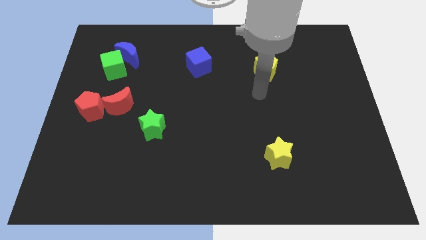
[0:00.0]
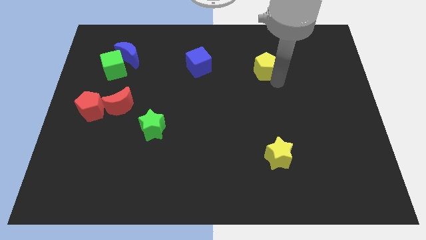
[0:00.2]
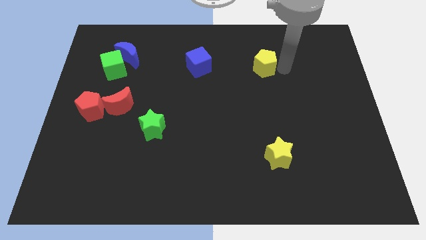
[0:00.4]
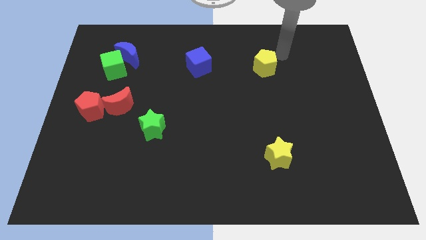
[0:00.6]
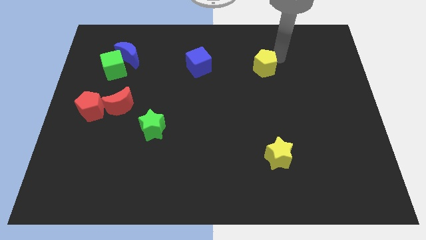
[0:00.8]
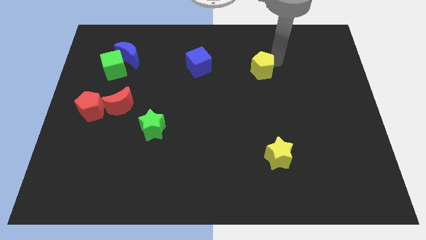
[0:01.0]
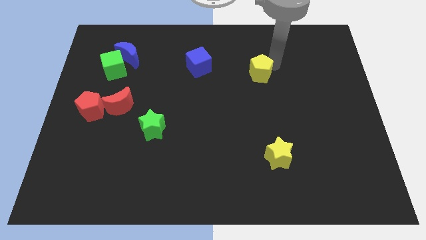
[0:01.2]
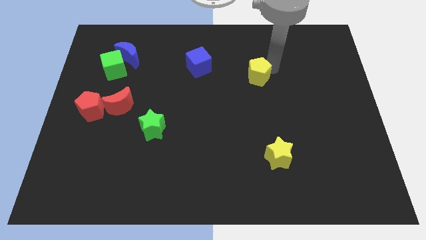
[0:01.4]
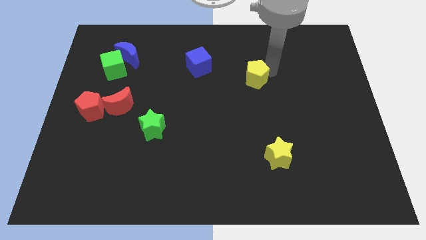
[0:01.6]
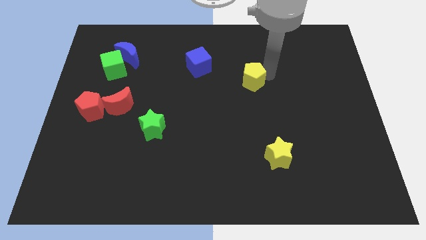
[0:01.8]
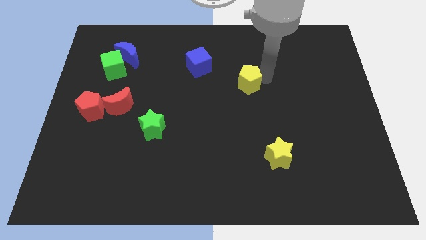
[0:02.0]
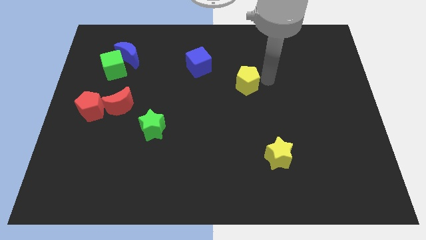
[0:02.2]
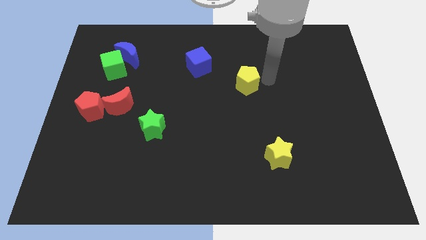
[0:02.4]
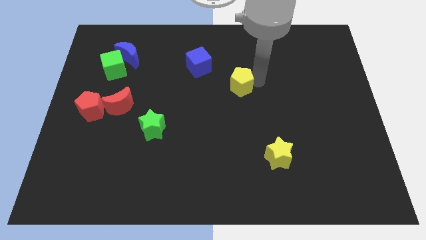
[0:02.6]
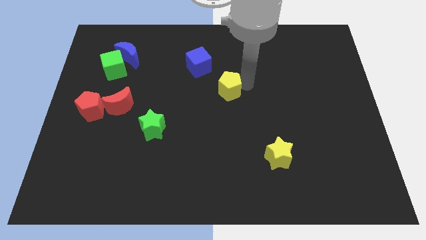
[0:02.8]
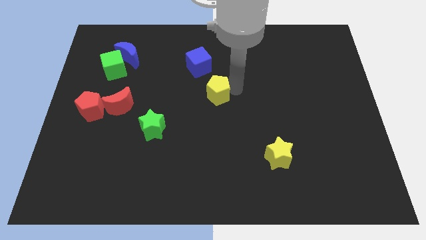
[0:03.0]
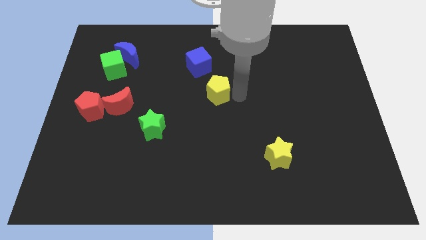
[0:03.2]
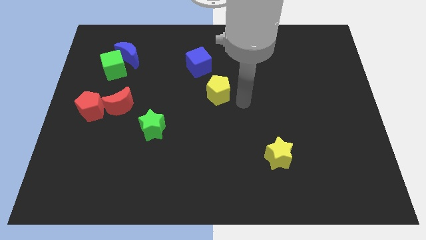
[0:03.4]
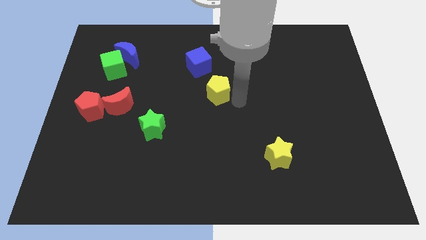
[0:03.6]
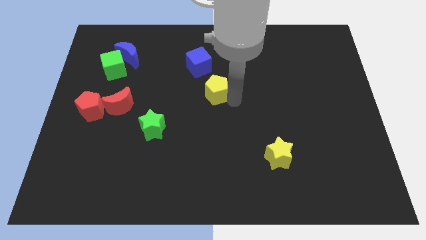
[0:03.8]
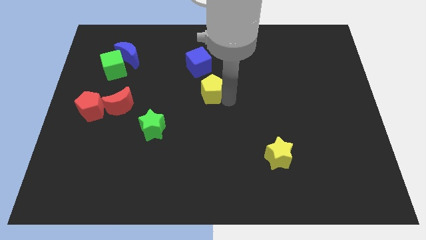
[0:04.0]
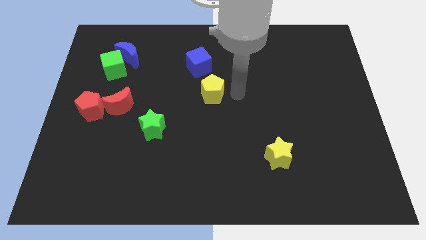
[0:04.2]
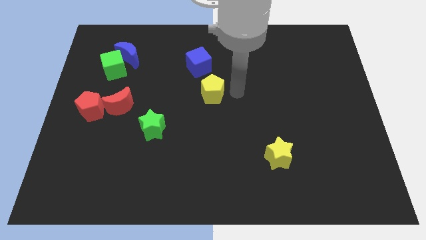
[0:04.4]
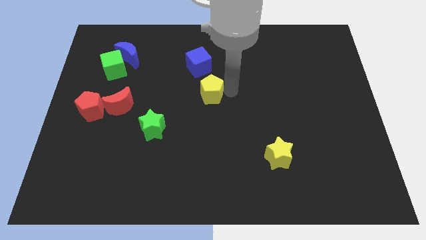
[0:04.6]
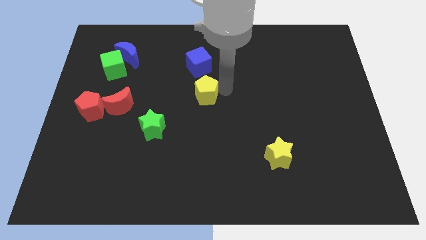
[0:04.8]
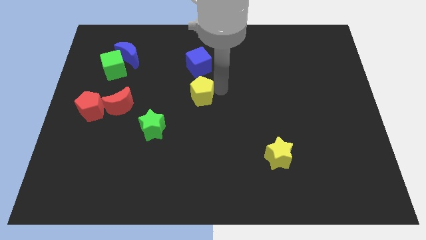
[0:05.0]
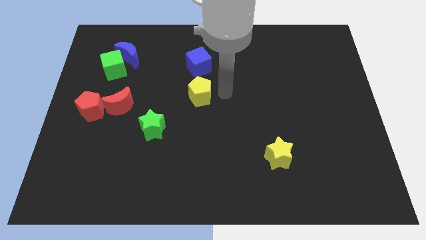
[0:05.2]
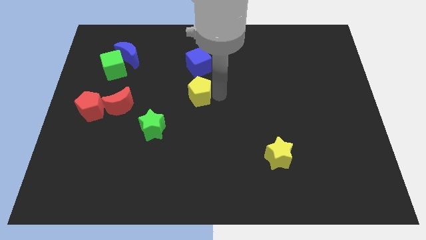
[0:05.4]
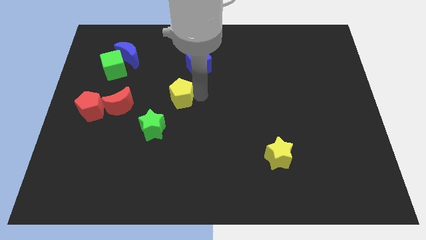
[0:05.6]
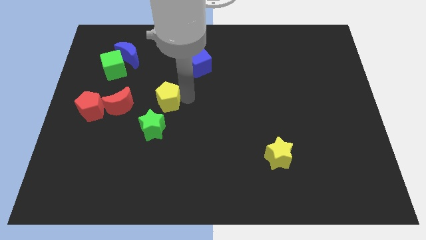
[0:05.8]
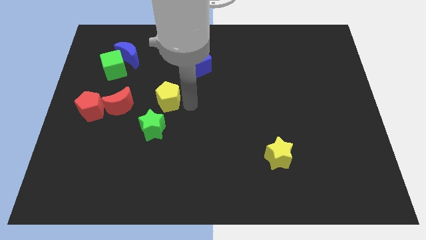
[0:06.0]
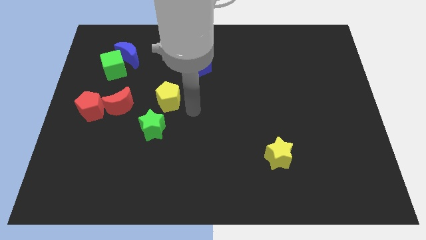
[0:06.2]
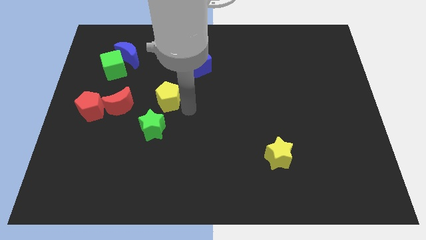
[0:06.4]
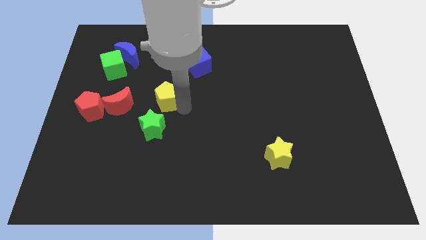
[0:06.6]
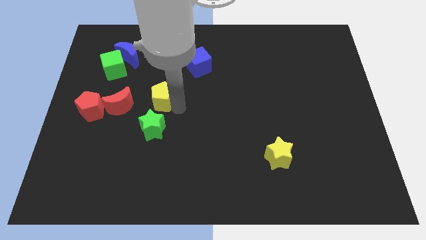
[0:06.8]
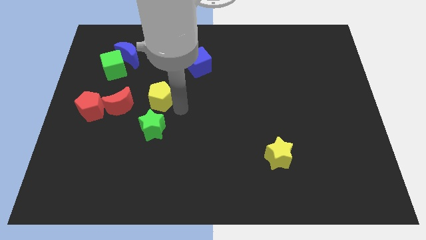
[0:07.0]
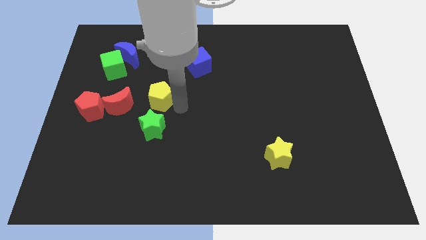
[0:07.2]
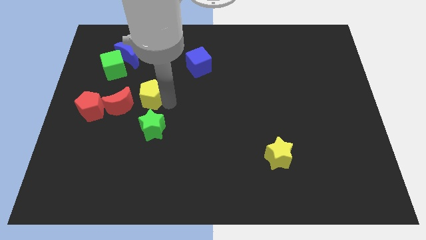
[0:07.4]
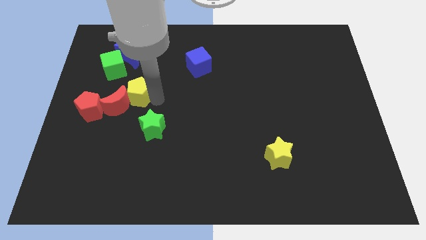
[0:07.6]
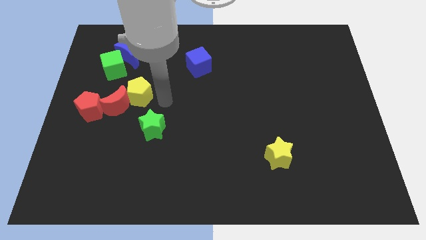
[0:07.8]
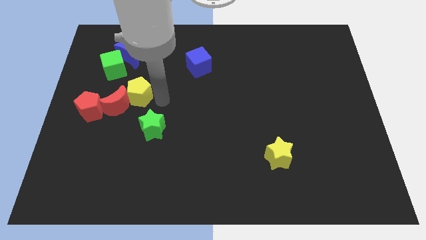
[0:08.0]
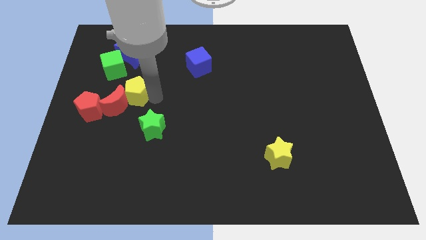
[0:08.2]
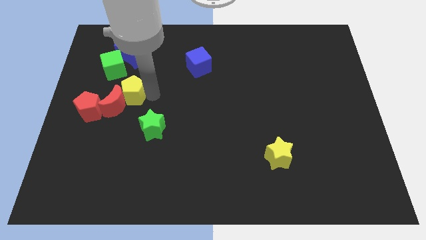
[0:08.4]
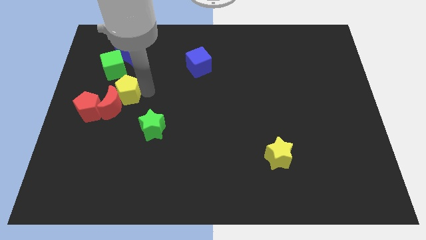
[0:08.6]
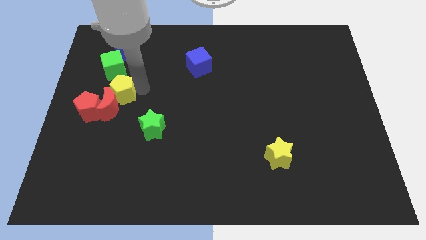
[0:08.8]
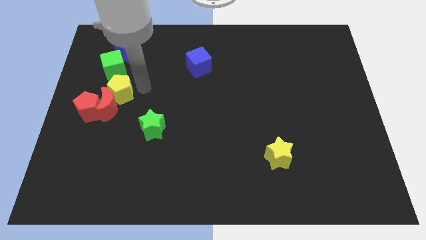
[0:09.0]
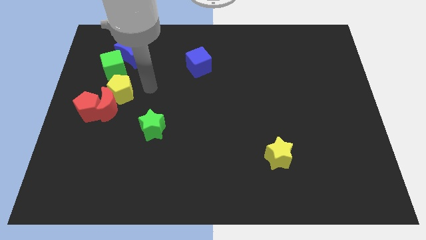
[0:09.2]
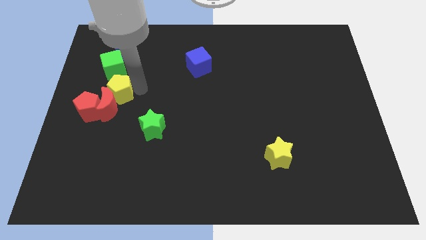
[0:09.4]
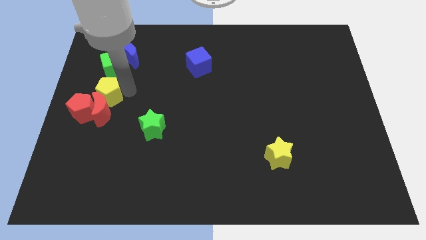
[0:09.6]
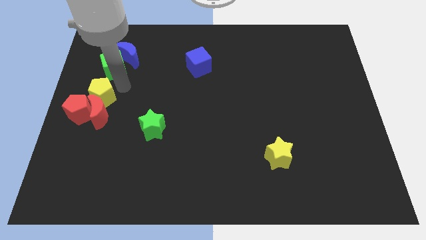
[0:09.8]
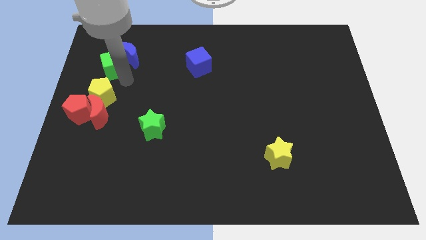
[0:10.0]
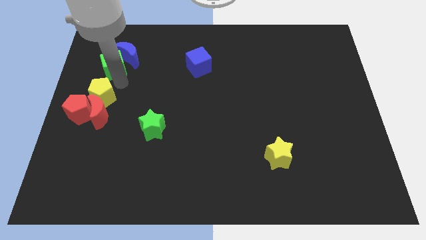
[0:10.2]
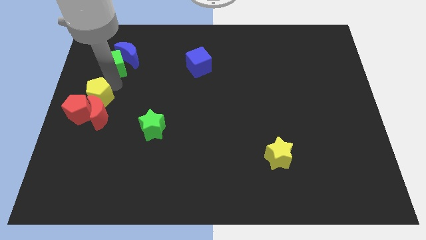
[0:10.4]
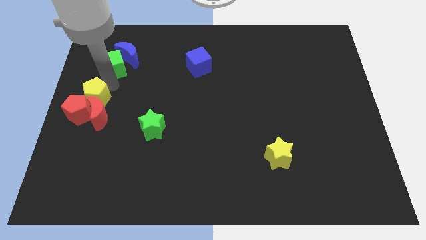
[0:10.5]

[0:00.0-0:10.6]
put the yellow pentagon to the red pentagon

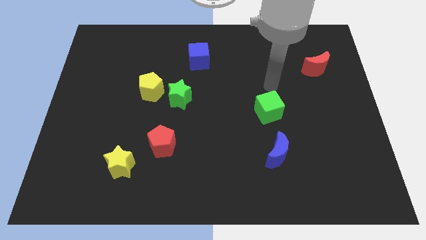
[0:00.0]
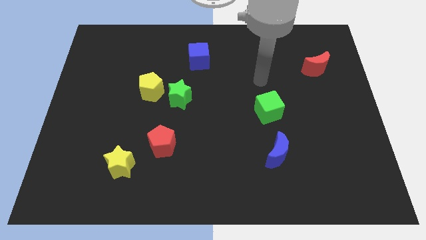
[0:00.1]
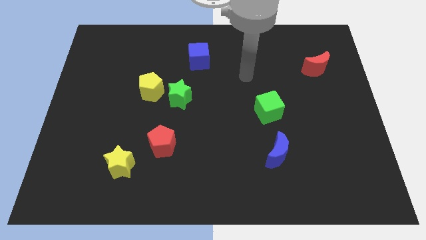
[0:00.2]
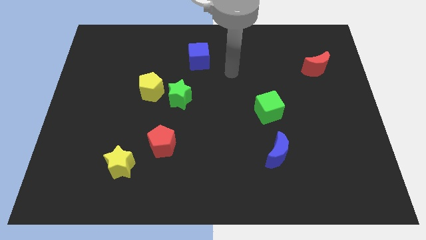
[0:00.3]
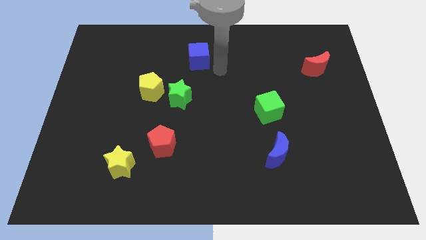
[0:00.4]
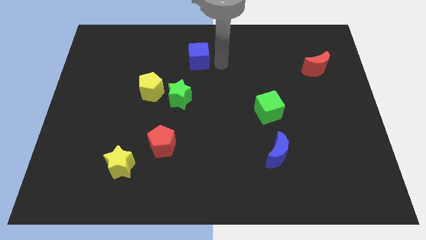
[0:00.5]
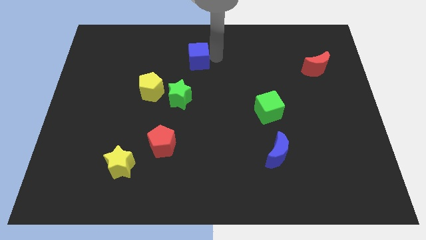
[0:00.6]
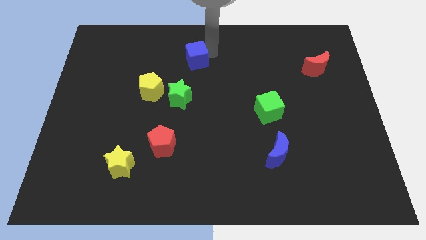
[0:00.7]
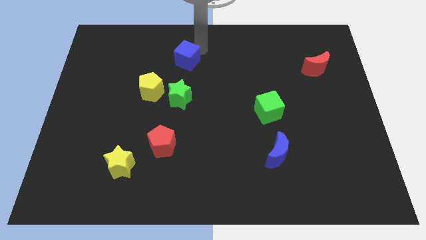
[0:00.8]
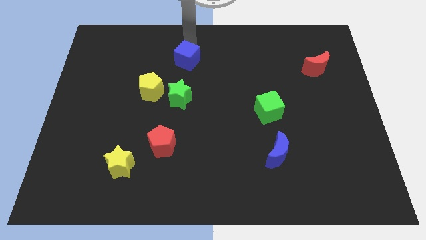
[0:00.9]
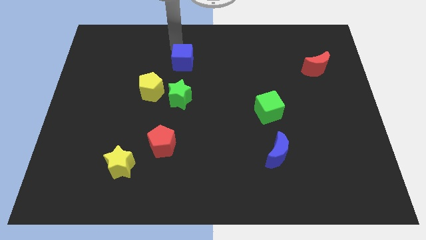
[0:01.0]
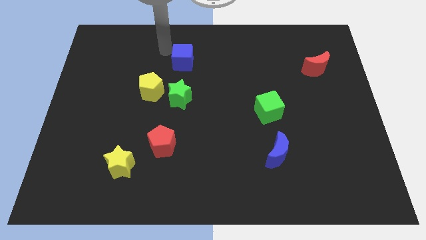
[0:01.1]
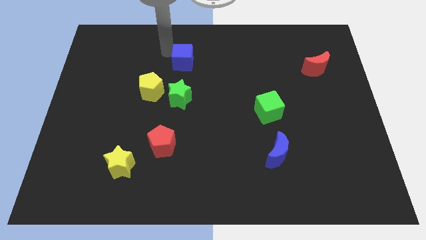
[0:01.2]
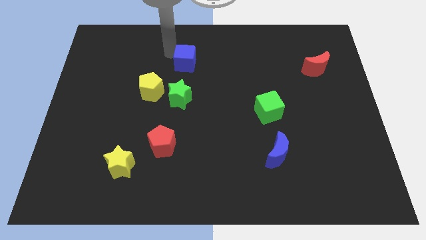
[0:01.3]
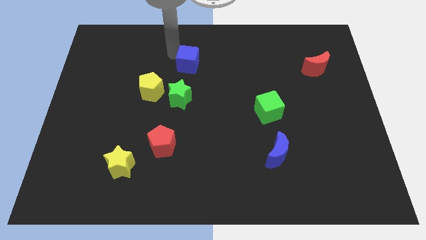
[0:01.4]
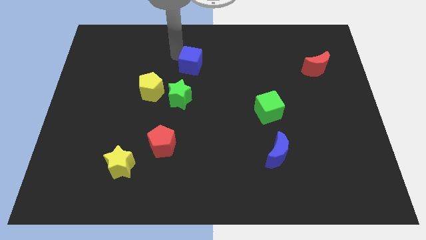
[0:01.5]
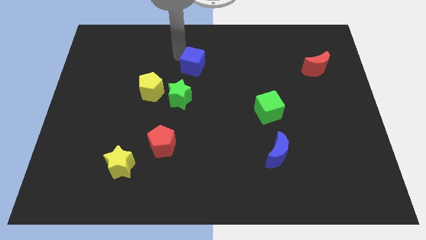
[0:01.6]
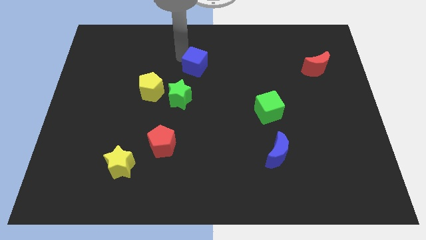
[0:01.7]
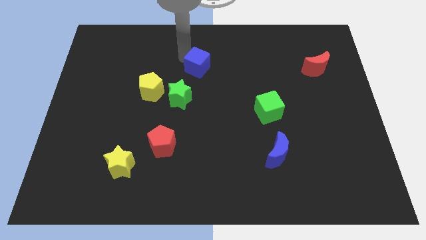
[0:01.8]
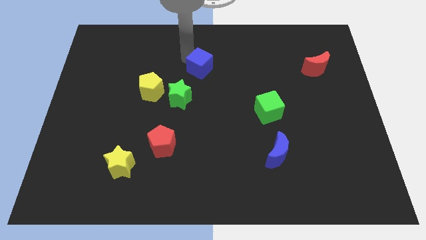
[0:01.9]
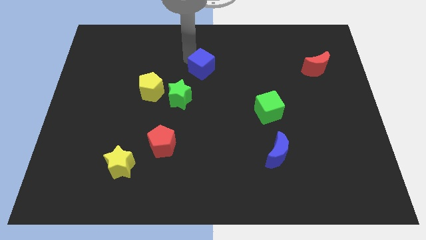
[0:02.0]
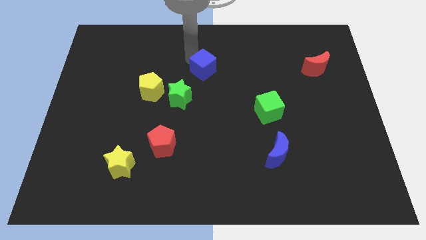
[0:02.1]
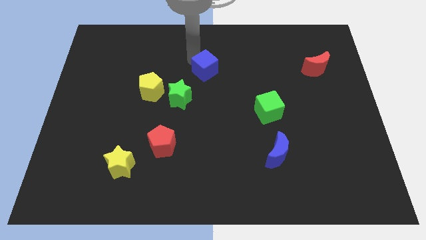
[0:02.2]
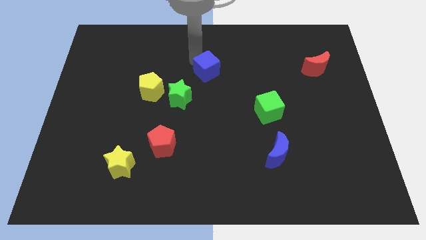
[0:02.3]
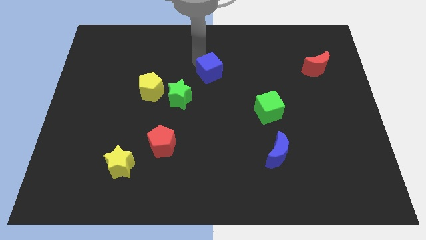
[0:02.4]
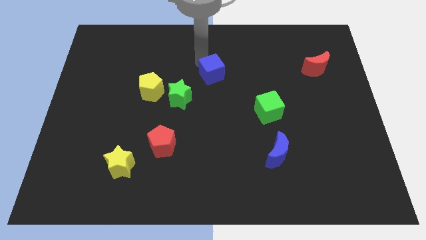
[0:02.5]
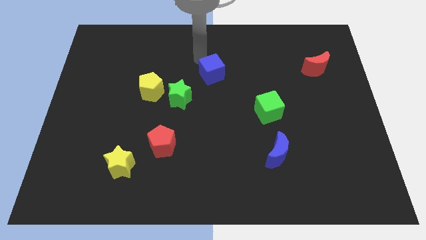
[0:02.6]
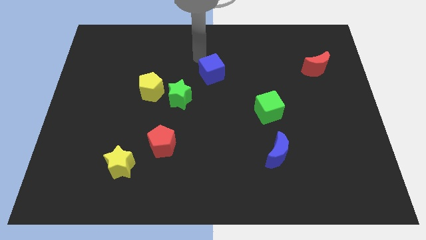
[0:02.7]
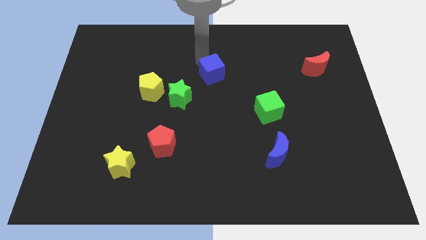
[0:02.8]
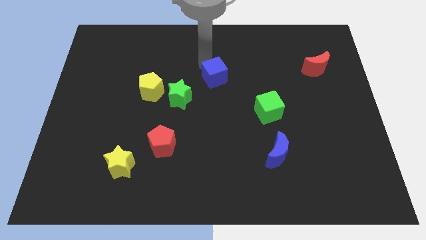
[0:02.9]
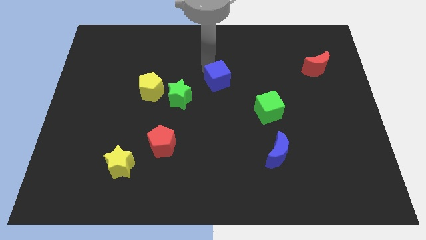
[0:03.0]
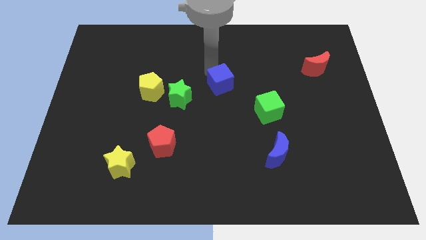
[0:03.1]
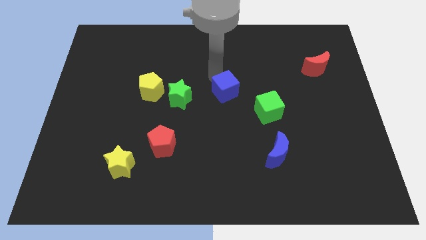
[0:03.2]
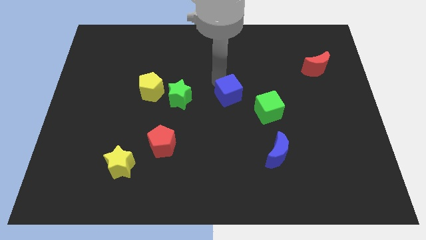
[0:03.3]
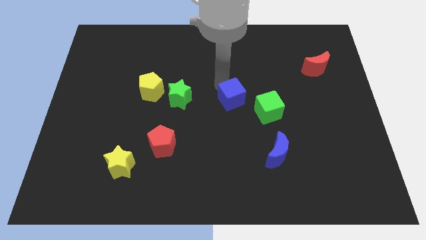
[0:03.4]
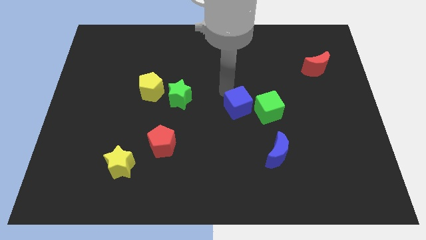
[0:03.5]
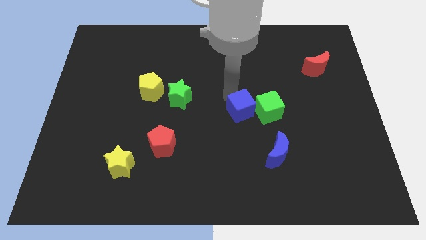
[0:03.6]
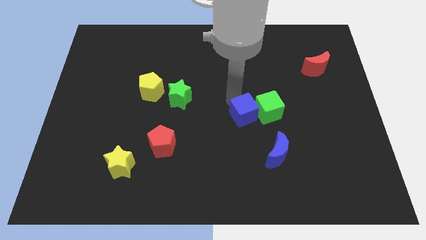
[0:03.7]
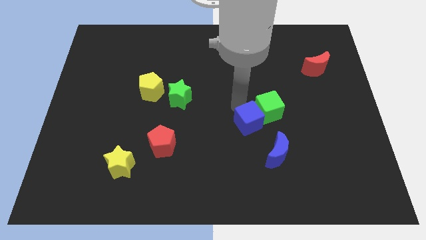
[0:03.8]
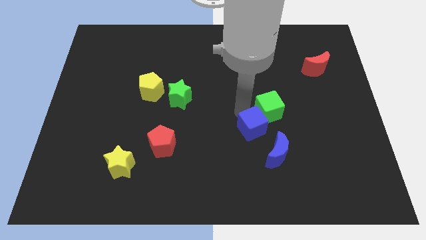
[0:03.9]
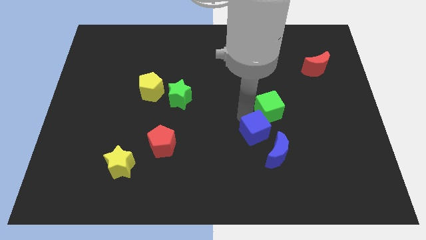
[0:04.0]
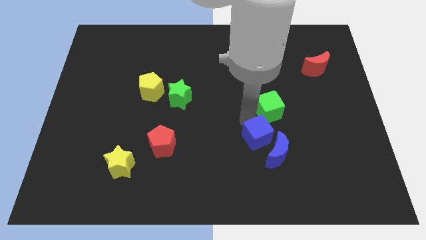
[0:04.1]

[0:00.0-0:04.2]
put the blue cube to the blue moon
